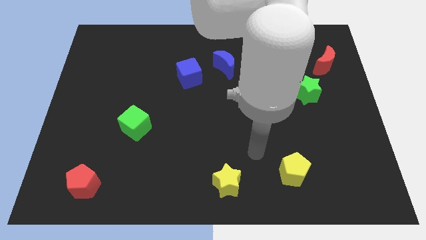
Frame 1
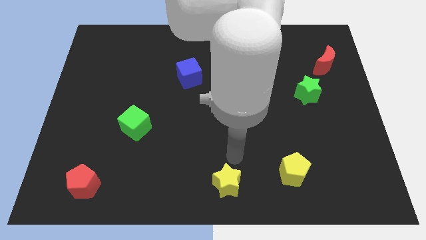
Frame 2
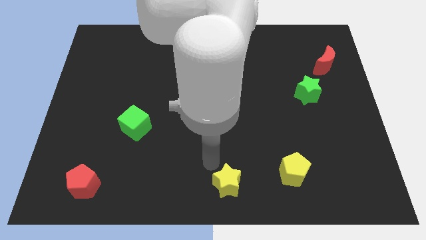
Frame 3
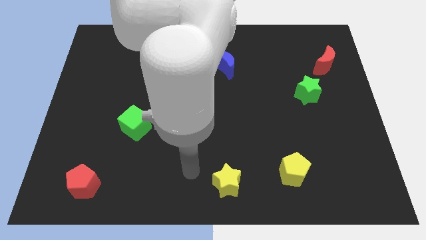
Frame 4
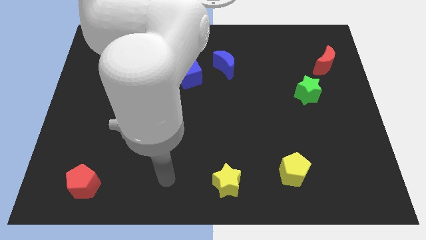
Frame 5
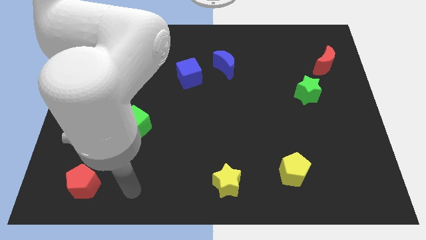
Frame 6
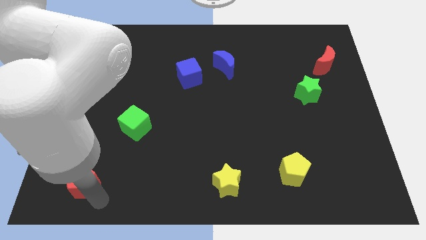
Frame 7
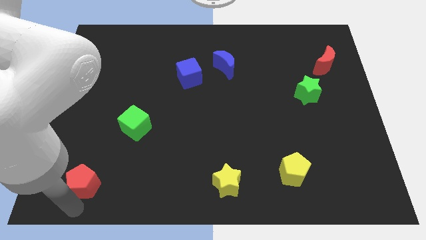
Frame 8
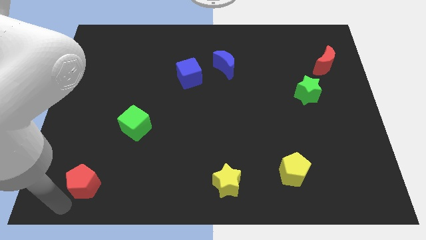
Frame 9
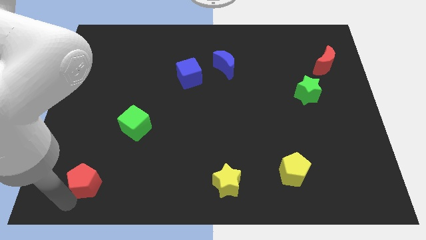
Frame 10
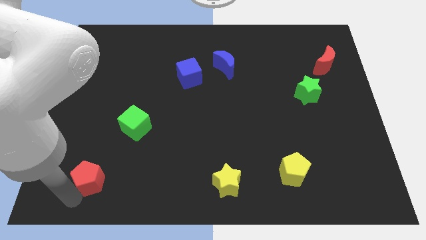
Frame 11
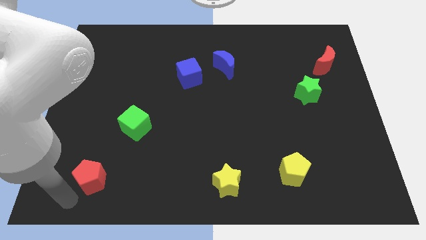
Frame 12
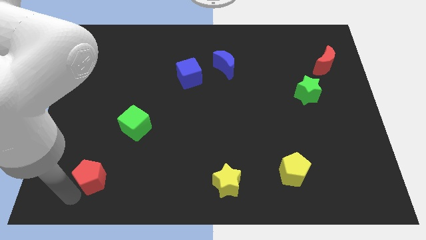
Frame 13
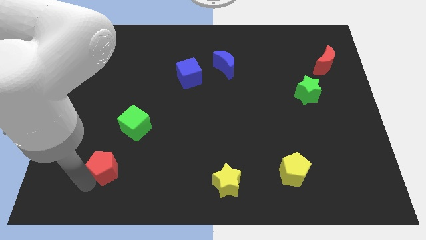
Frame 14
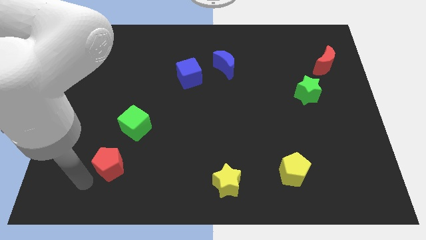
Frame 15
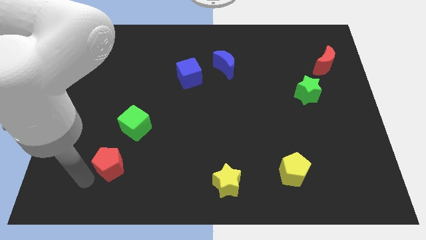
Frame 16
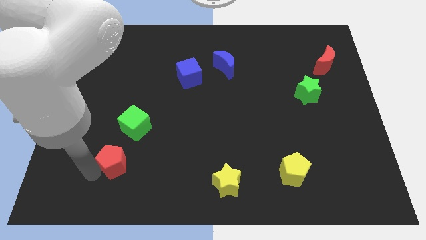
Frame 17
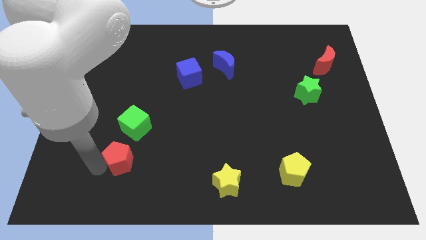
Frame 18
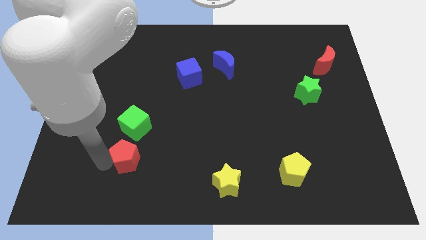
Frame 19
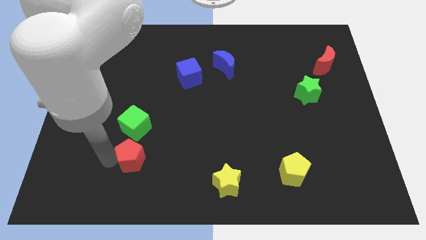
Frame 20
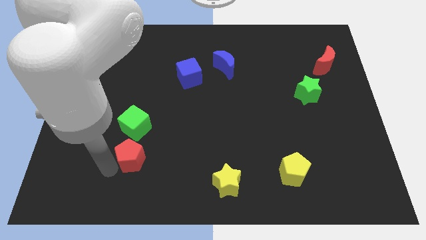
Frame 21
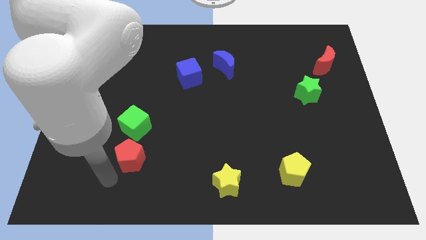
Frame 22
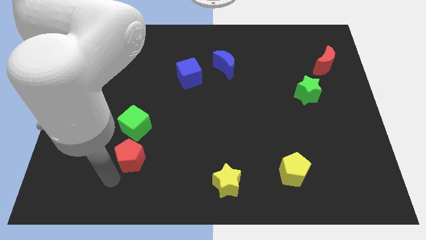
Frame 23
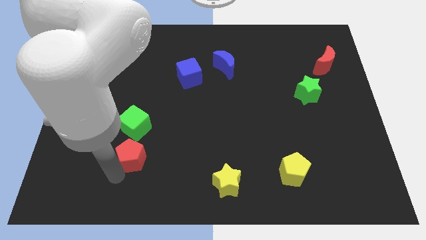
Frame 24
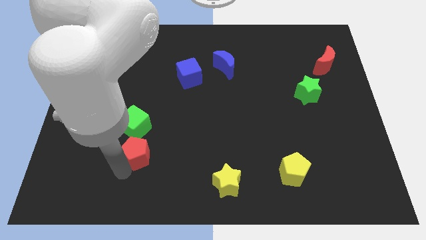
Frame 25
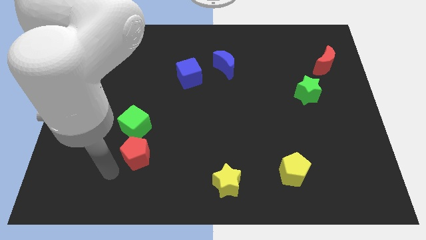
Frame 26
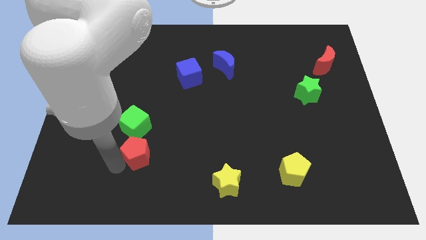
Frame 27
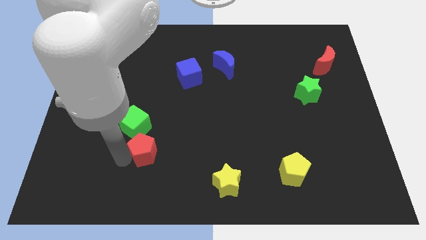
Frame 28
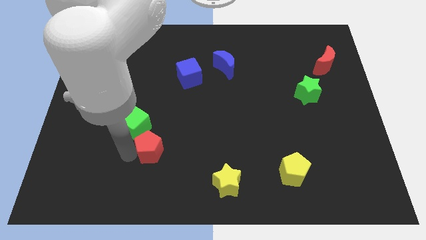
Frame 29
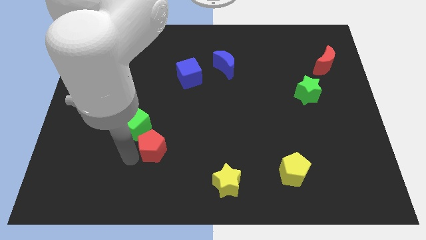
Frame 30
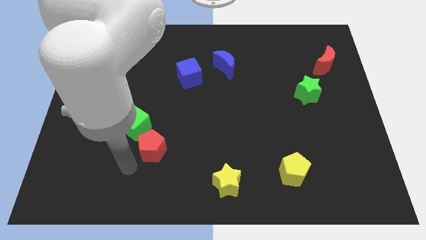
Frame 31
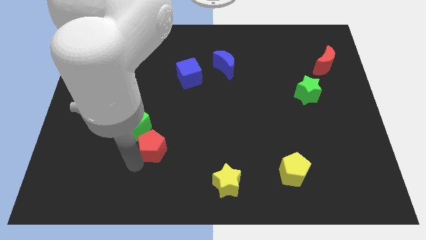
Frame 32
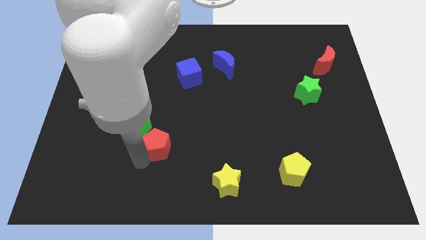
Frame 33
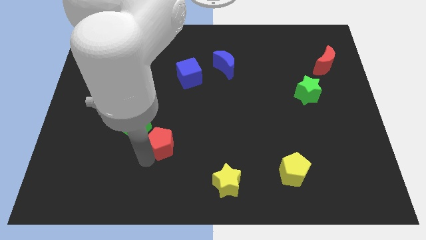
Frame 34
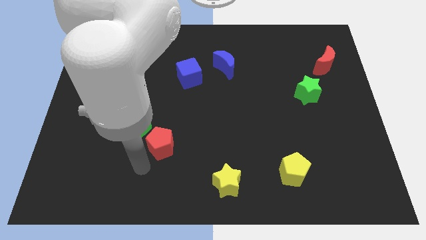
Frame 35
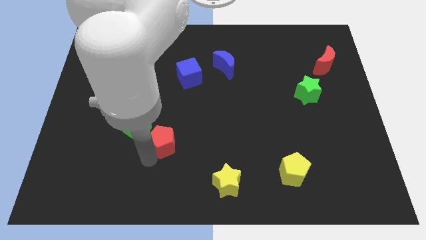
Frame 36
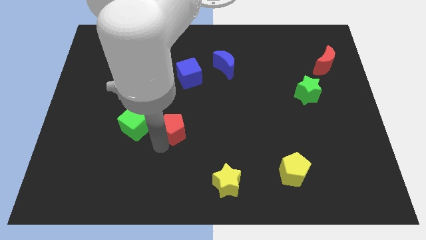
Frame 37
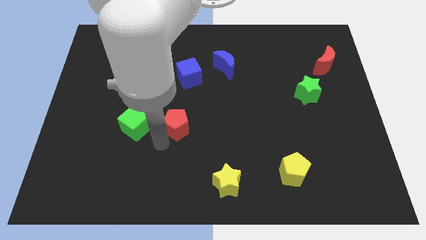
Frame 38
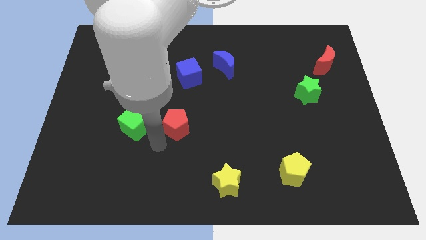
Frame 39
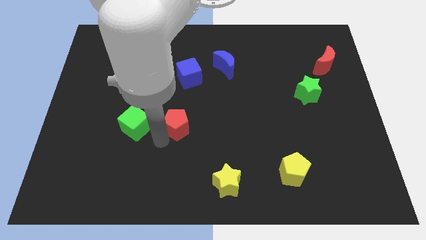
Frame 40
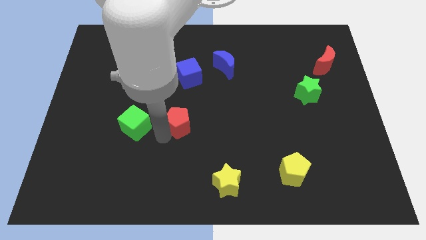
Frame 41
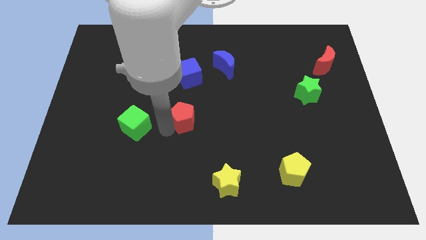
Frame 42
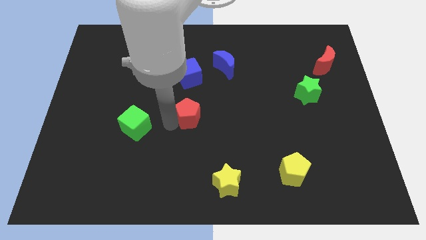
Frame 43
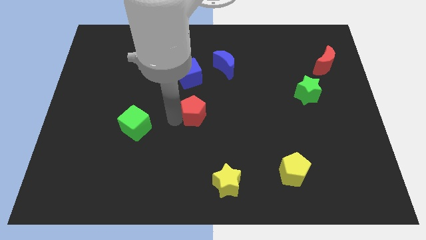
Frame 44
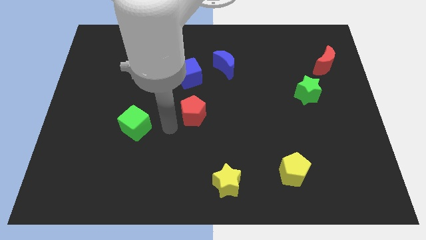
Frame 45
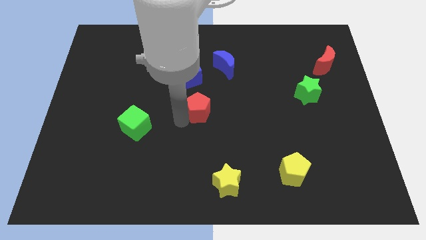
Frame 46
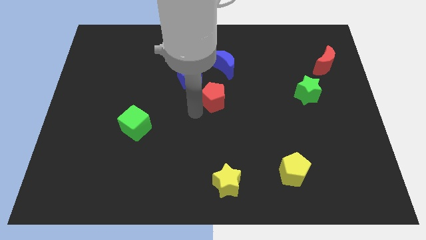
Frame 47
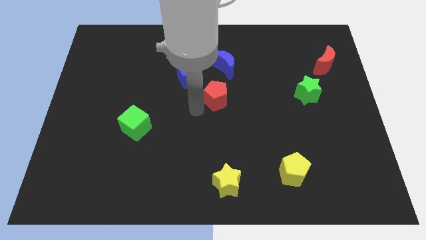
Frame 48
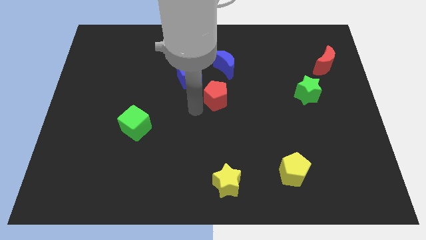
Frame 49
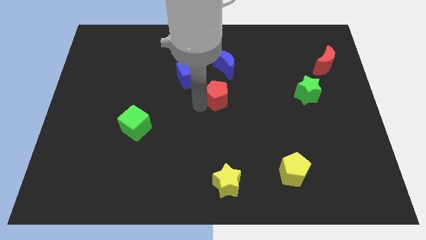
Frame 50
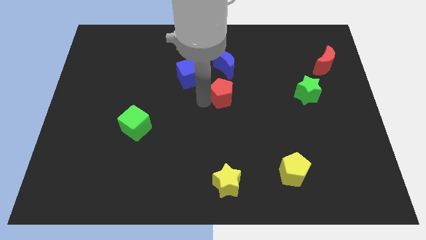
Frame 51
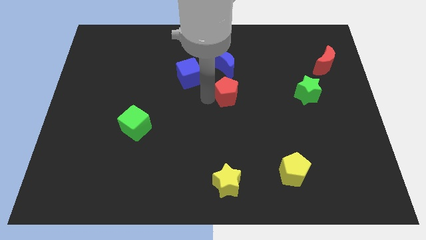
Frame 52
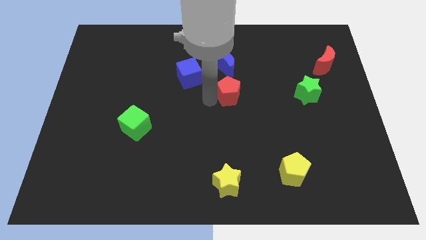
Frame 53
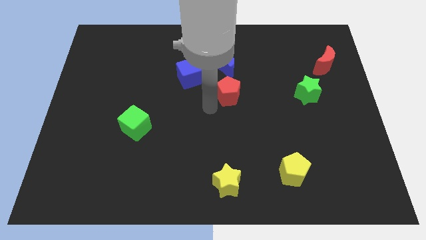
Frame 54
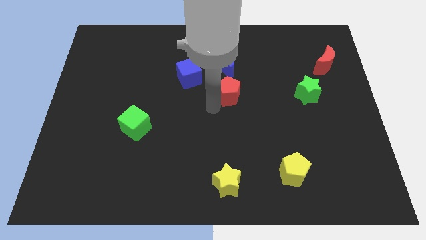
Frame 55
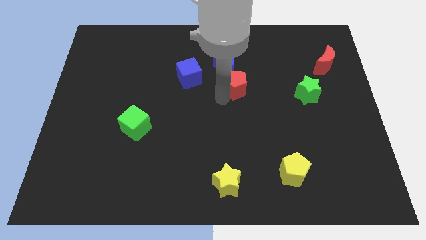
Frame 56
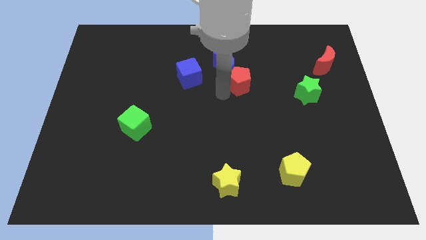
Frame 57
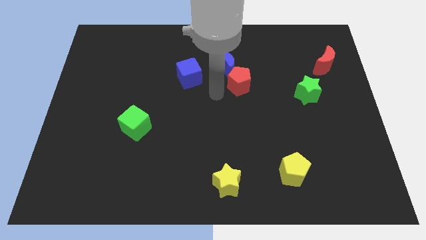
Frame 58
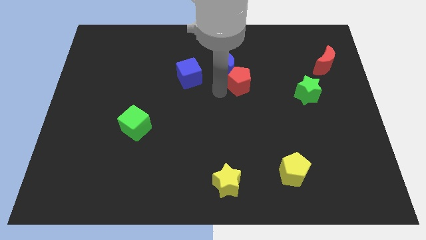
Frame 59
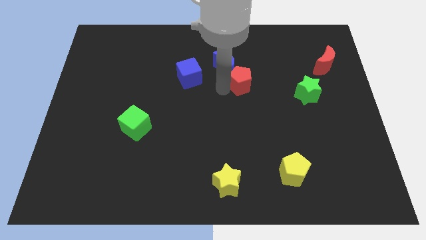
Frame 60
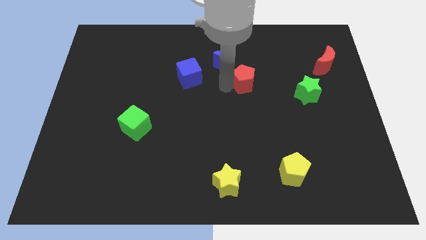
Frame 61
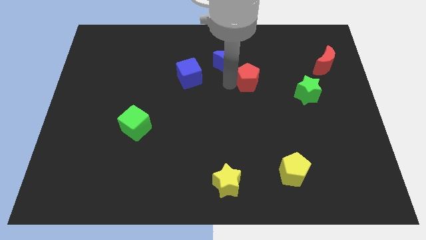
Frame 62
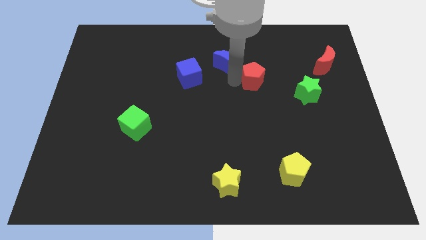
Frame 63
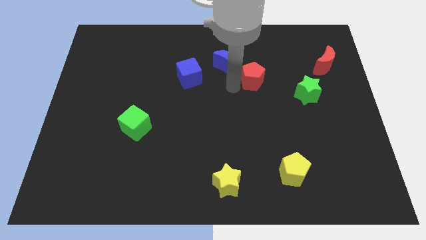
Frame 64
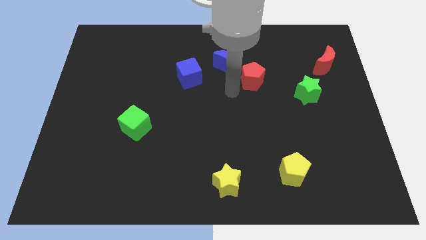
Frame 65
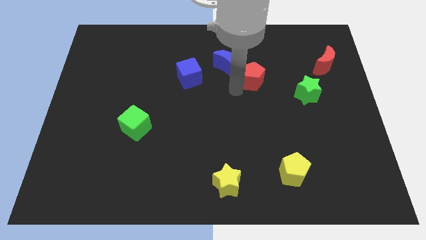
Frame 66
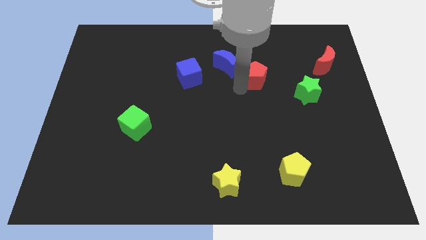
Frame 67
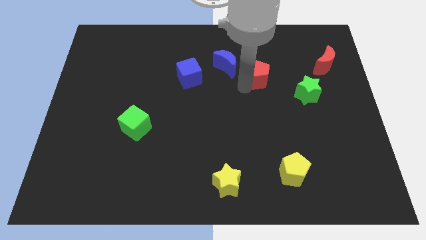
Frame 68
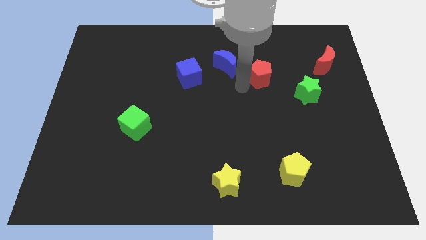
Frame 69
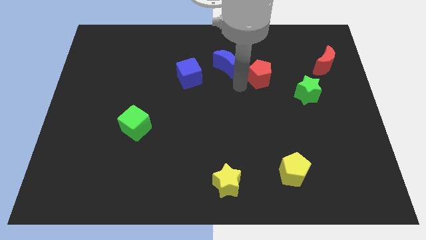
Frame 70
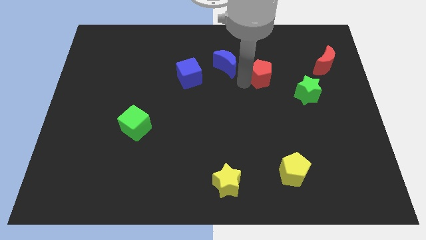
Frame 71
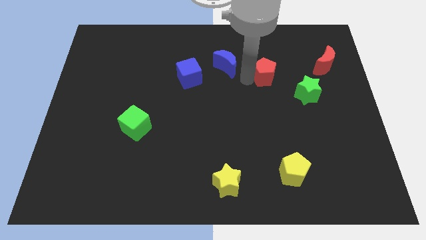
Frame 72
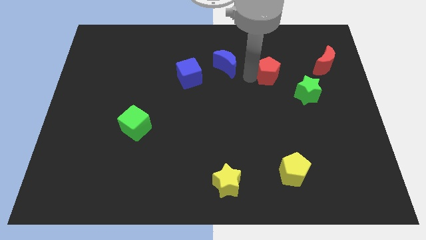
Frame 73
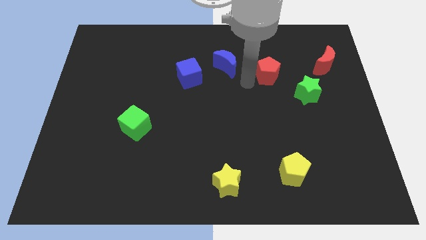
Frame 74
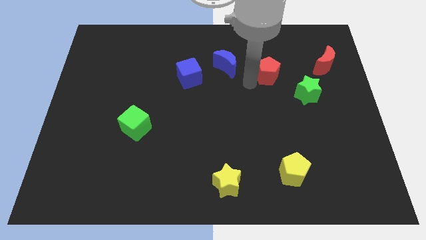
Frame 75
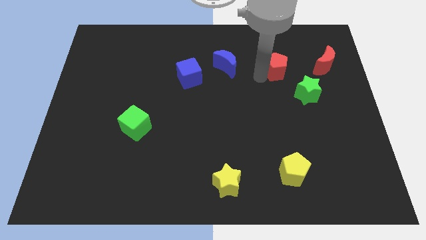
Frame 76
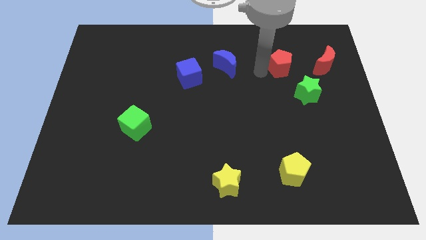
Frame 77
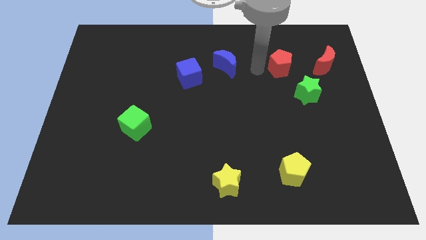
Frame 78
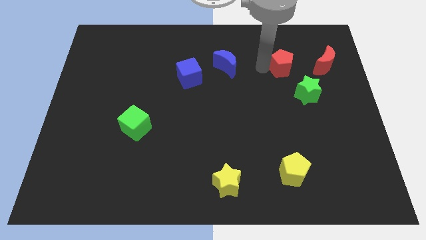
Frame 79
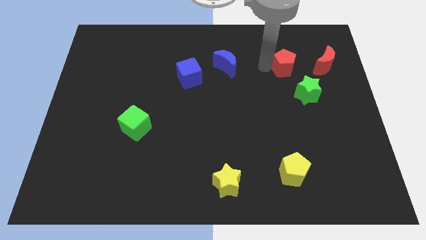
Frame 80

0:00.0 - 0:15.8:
put the red pentagon to the top of the green star
